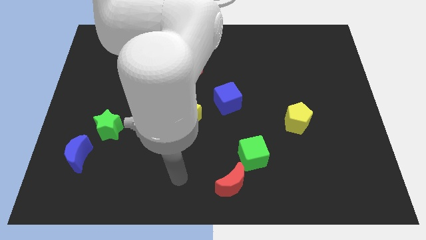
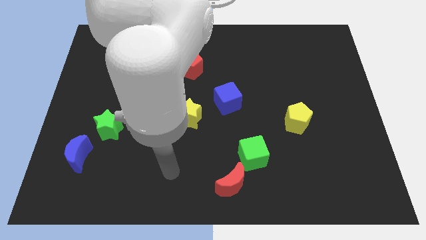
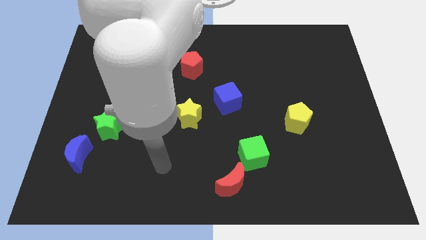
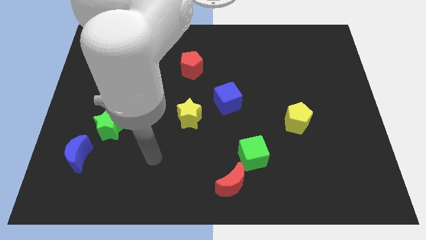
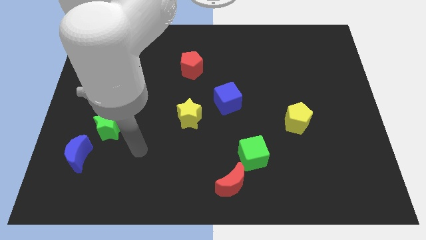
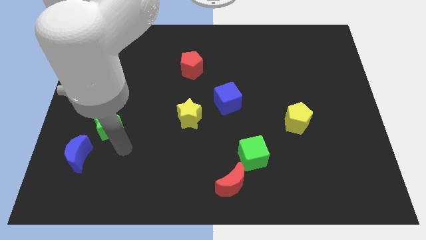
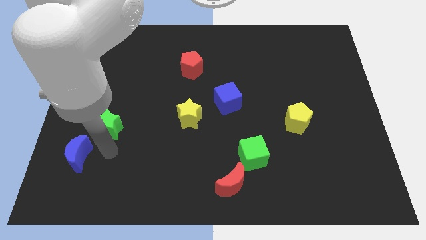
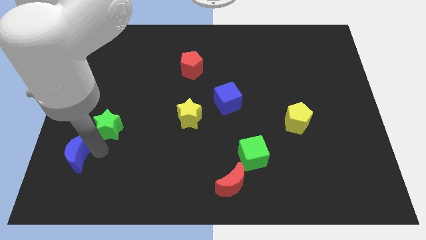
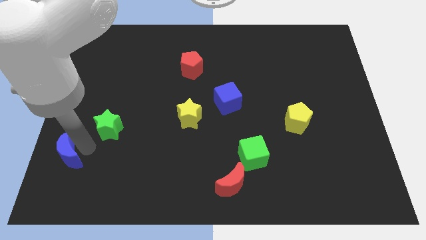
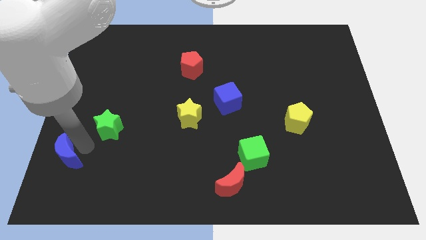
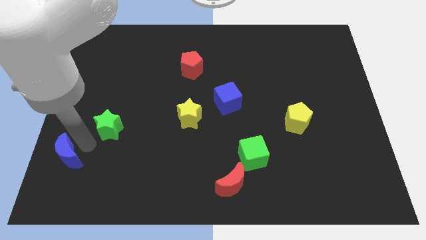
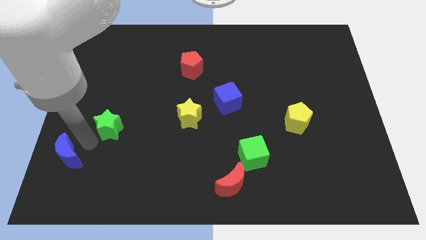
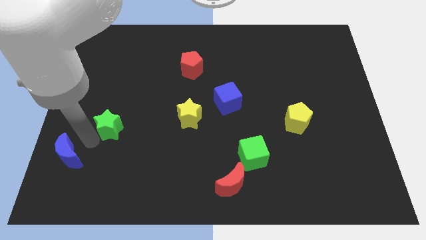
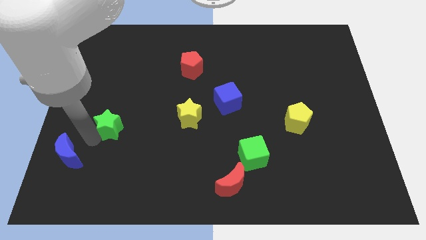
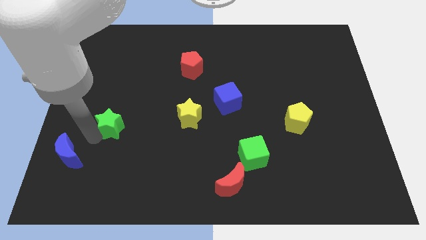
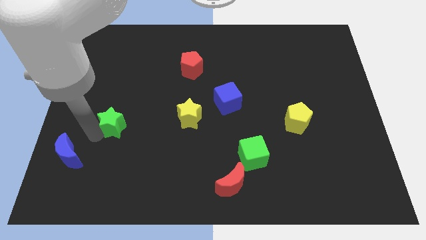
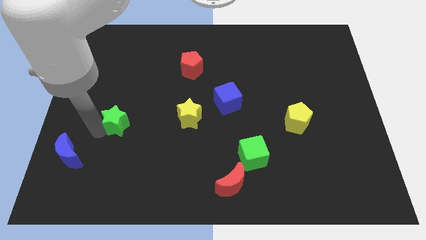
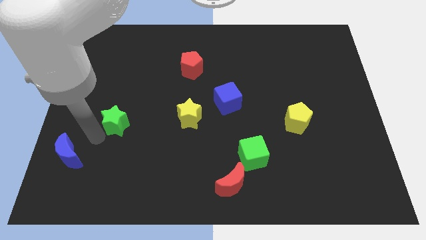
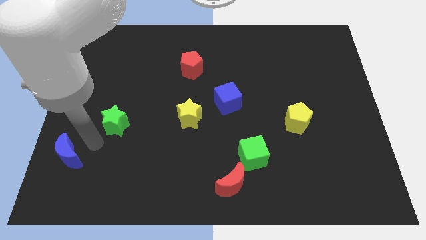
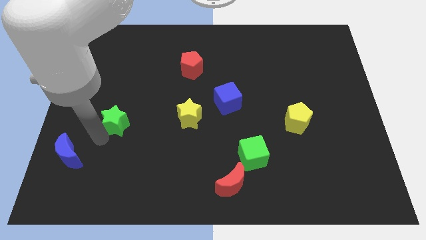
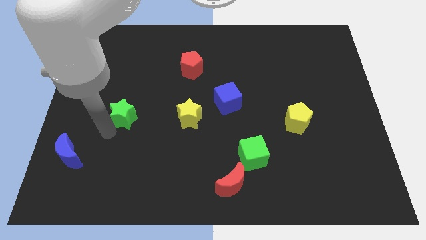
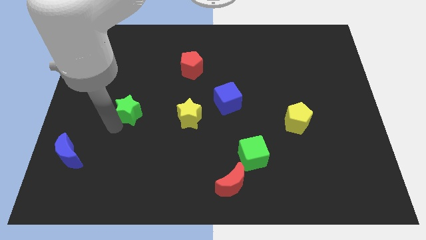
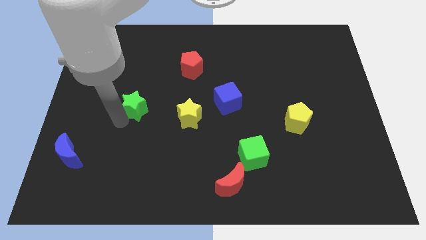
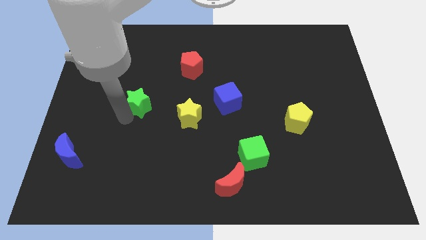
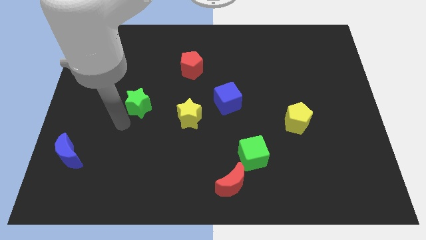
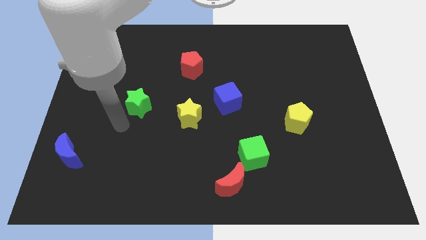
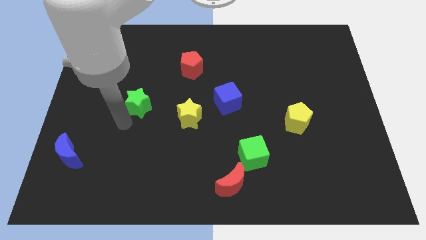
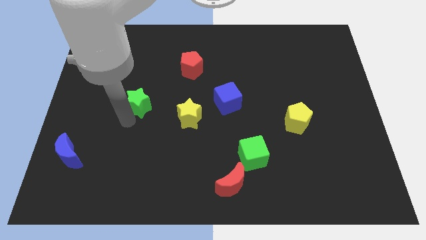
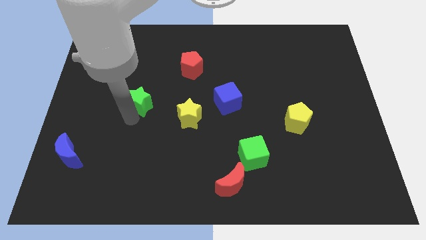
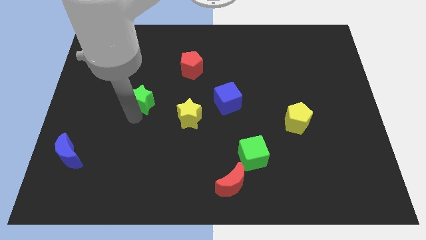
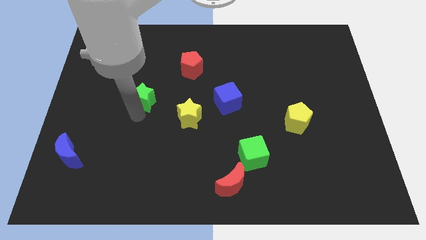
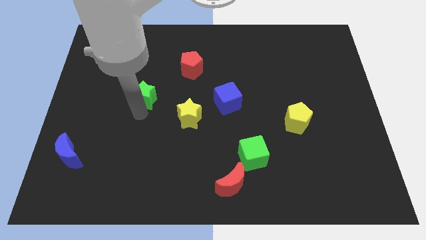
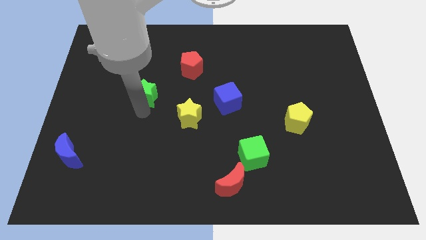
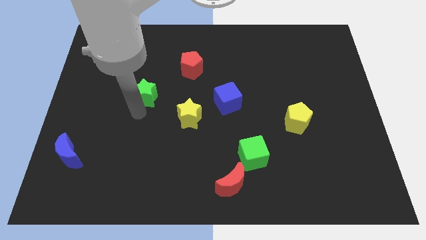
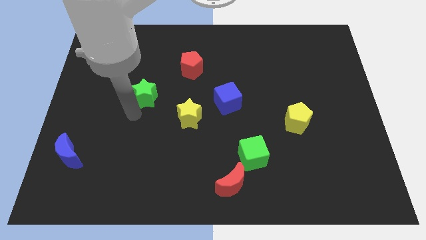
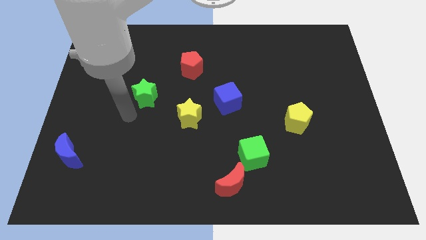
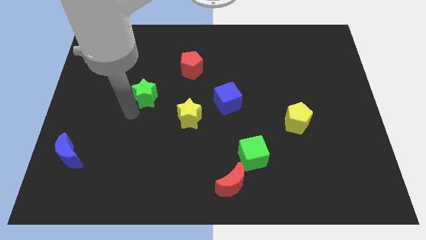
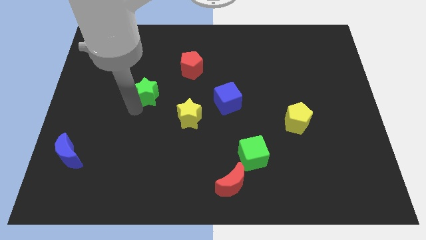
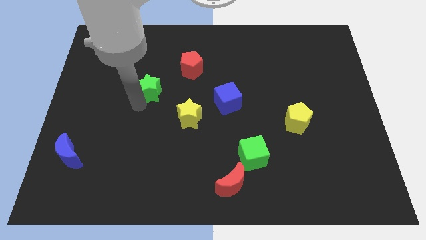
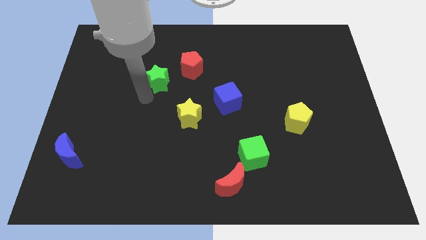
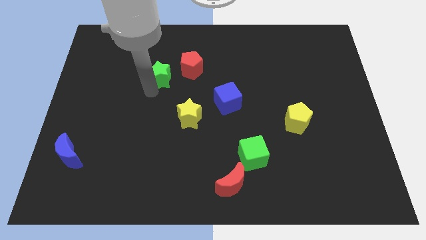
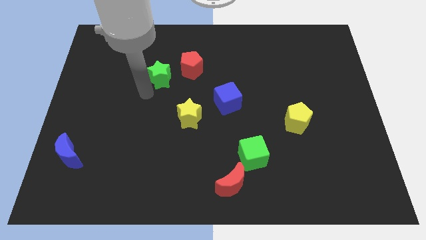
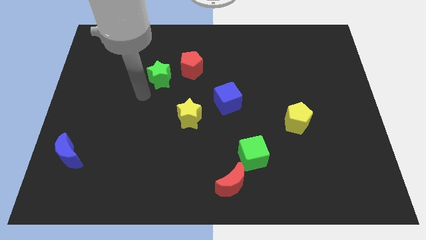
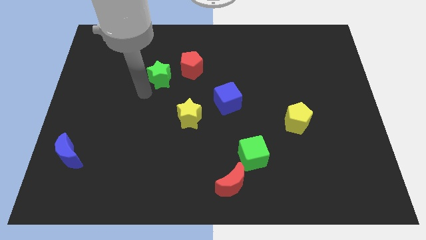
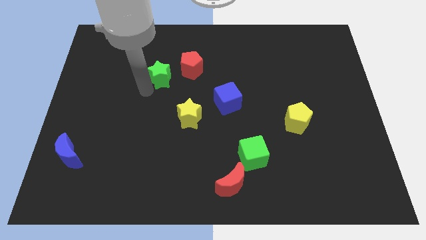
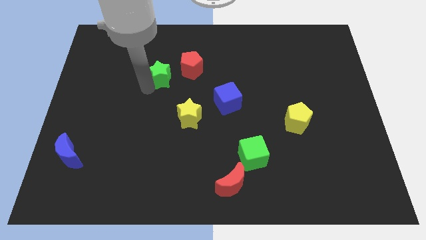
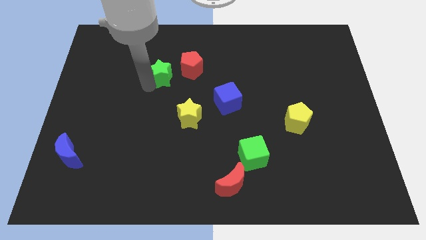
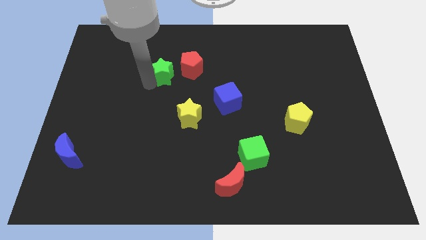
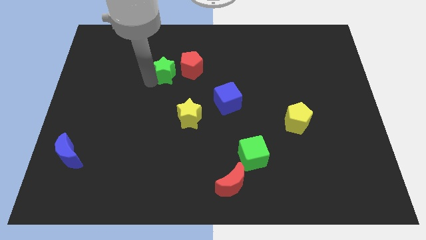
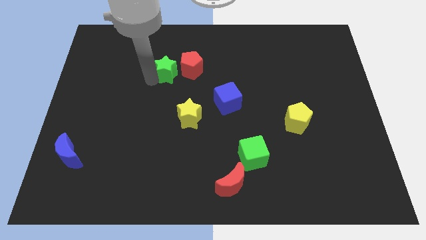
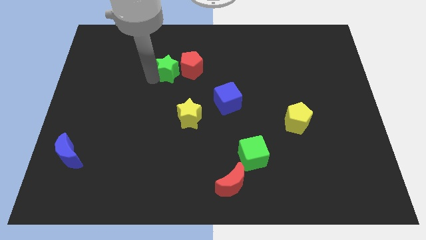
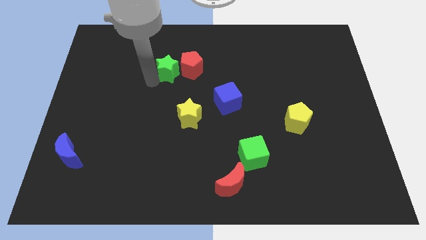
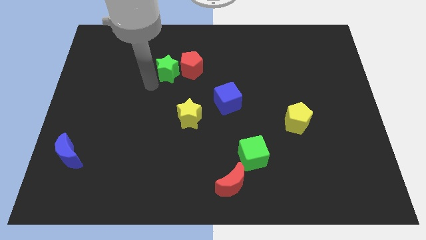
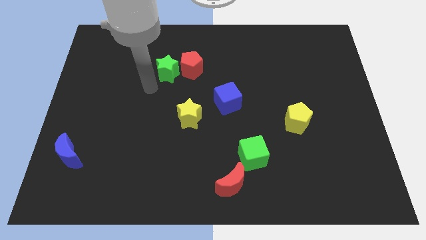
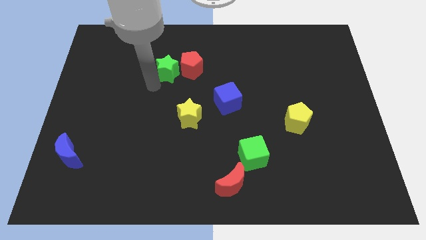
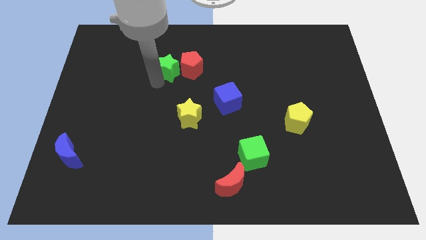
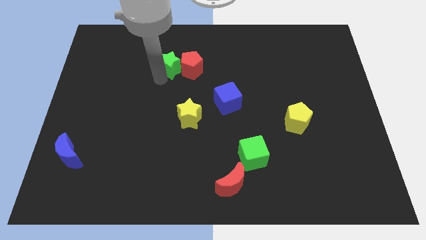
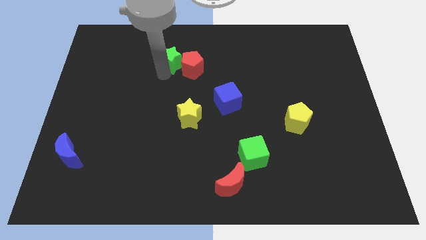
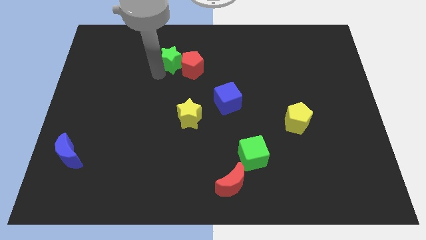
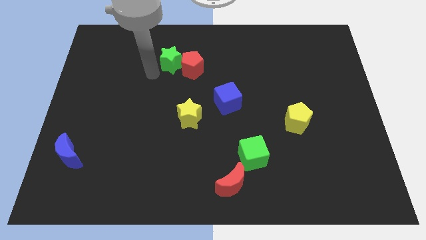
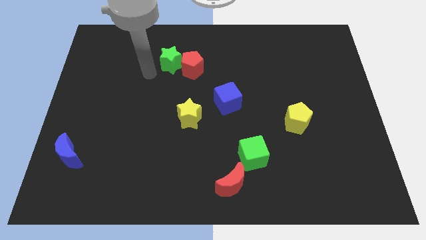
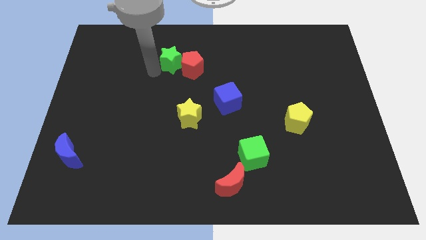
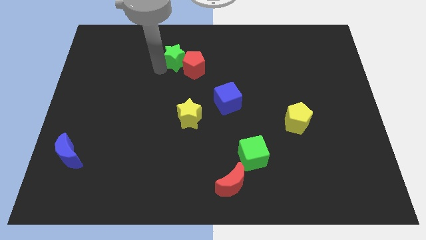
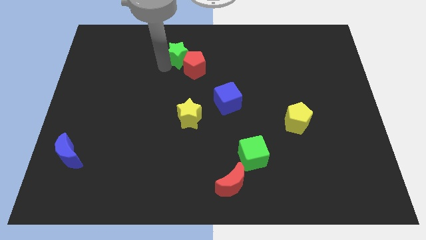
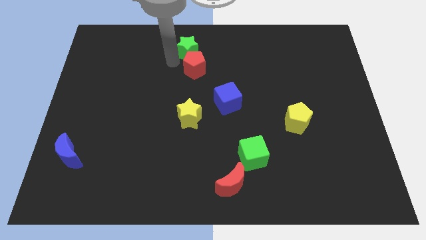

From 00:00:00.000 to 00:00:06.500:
slide the green star to the towards your base

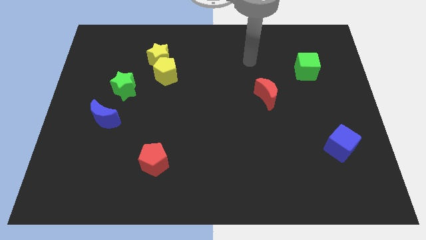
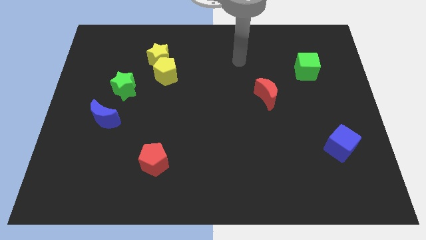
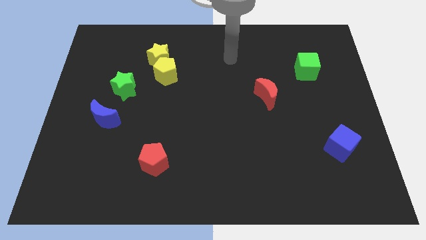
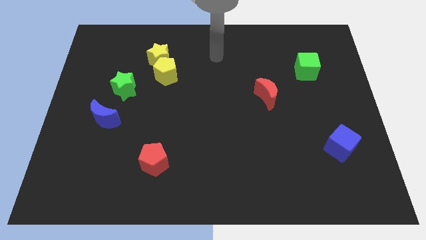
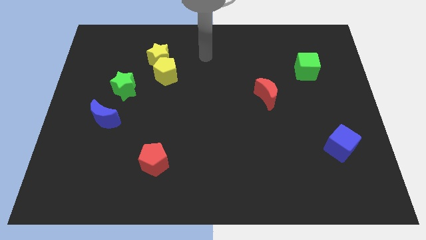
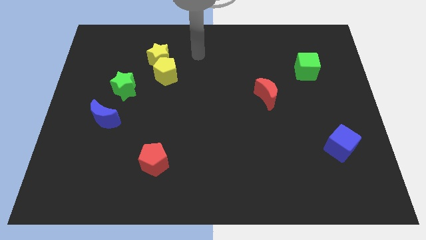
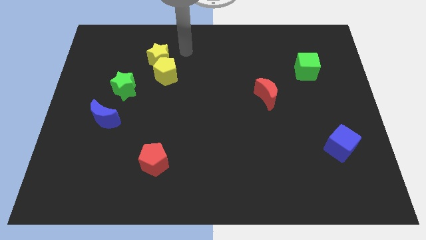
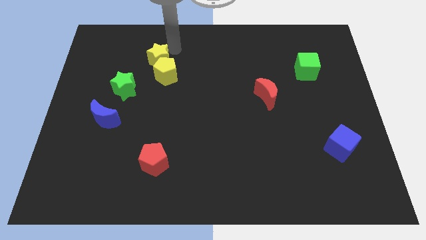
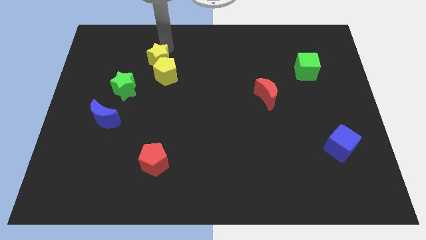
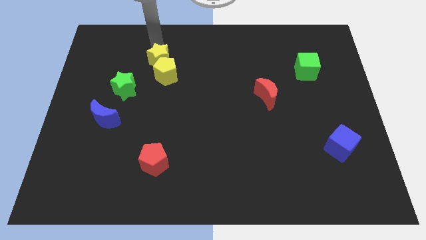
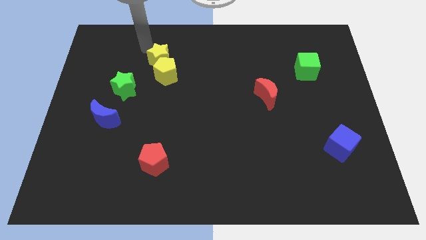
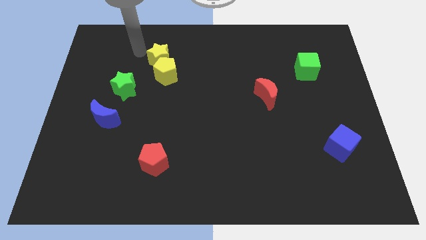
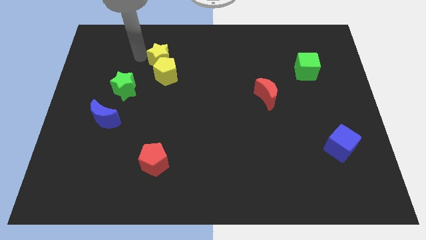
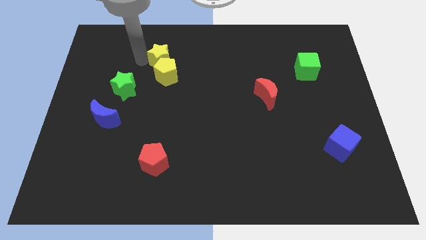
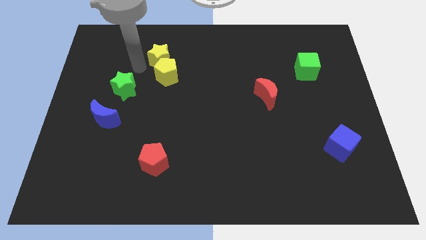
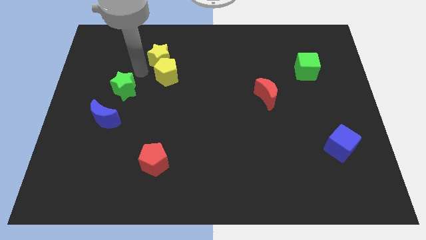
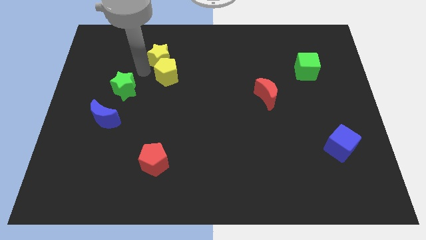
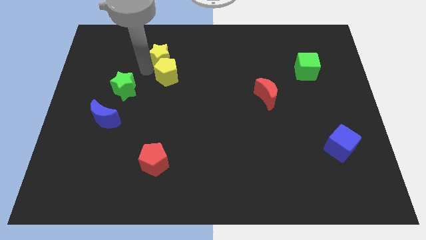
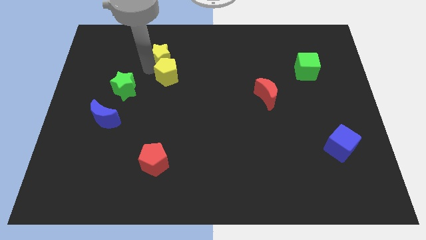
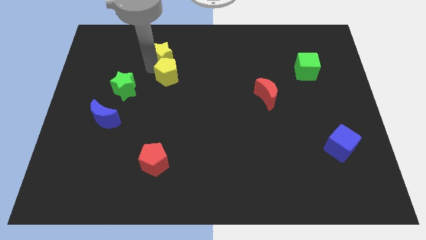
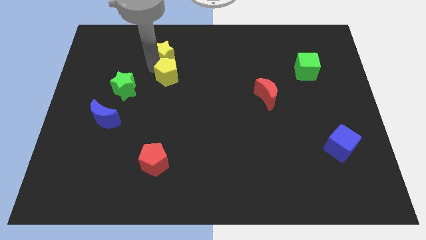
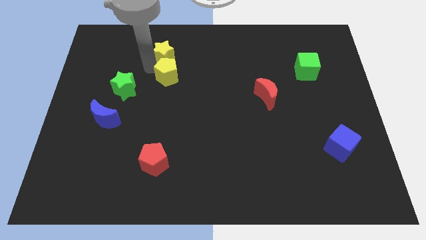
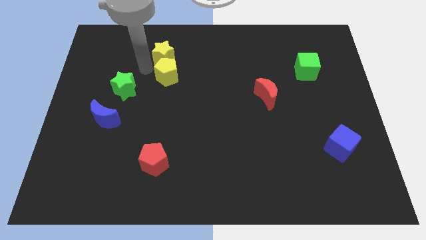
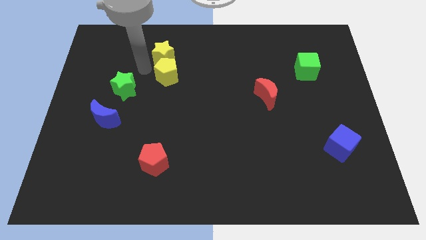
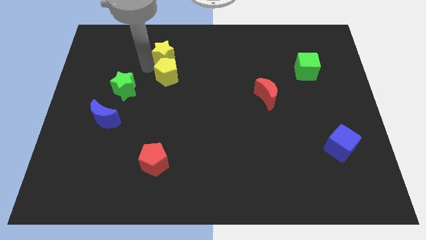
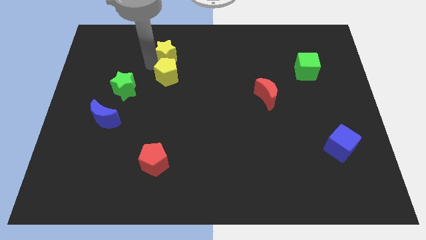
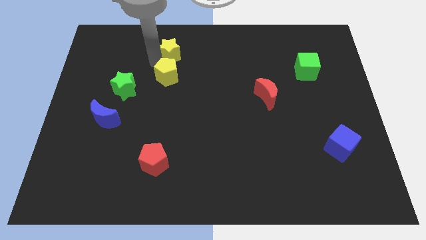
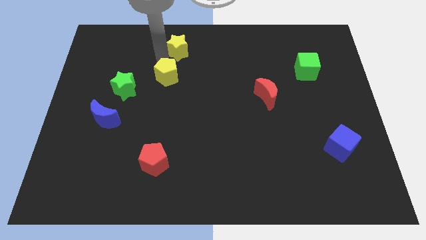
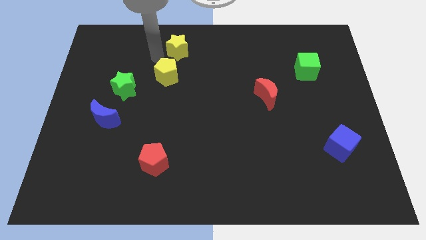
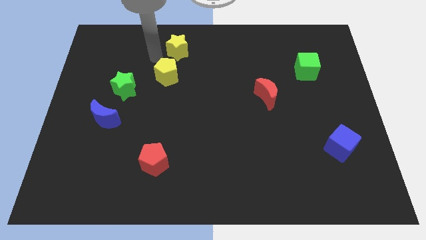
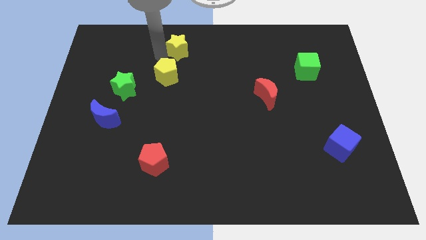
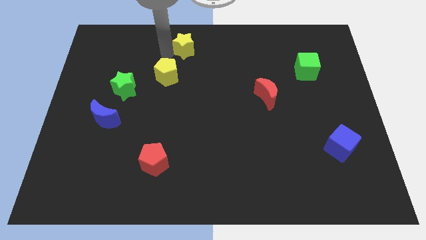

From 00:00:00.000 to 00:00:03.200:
push the yellow star to the top side
